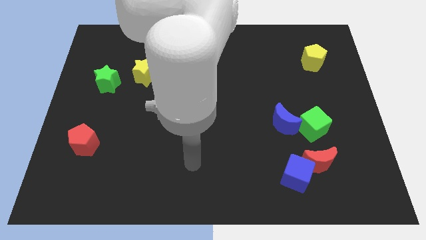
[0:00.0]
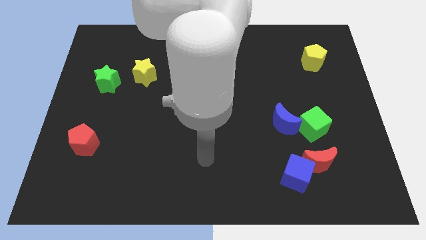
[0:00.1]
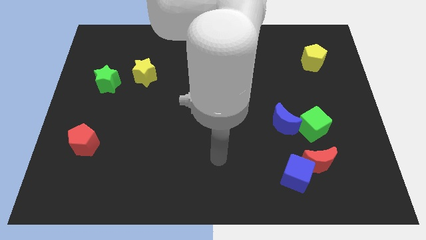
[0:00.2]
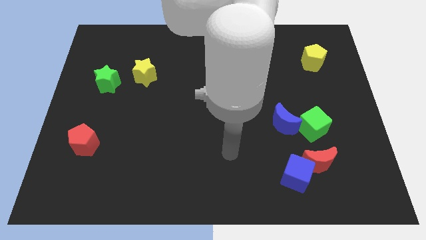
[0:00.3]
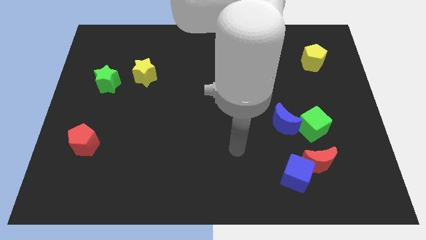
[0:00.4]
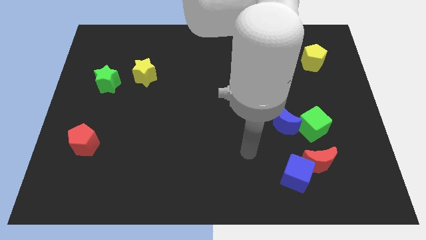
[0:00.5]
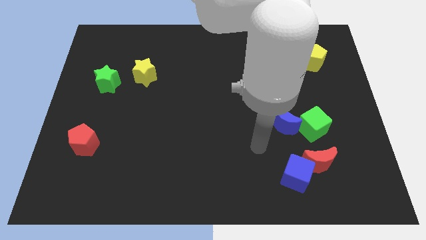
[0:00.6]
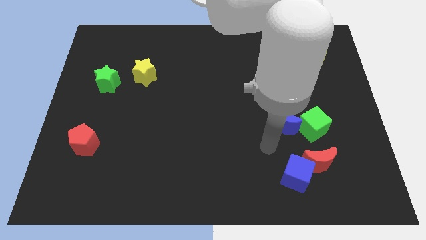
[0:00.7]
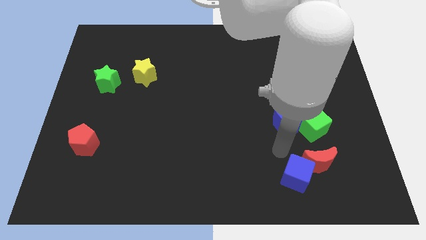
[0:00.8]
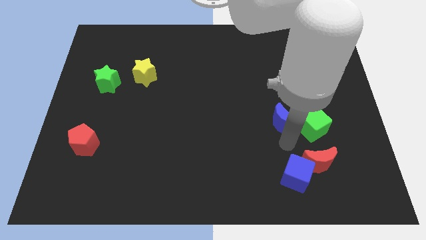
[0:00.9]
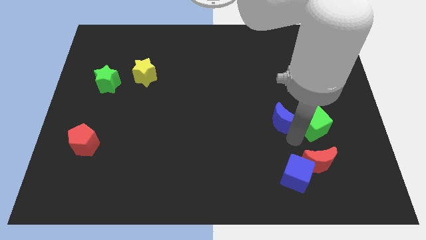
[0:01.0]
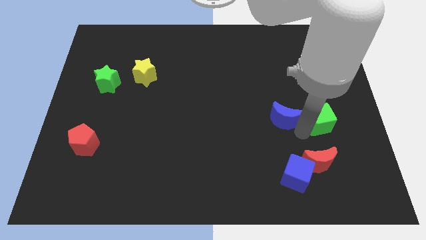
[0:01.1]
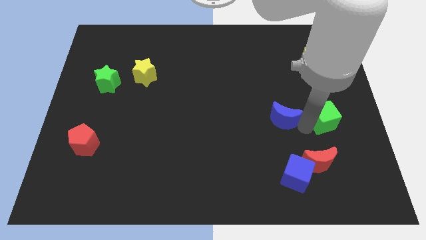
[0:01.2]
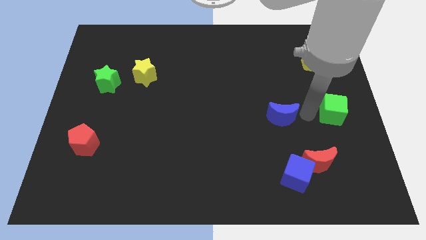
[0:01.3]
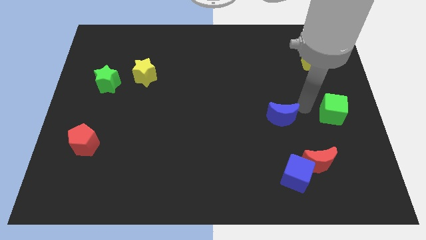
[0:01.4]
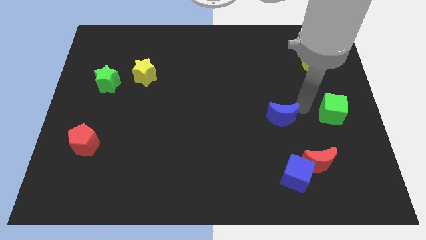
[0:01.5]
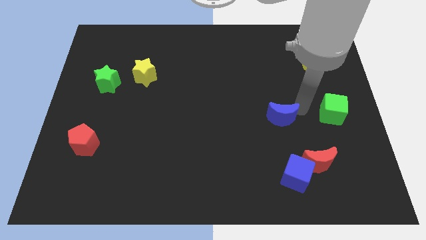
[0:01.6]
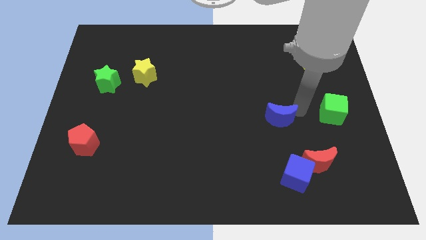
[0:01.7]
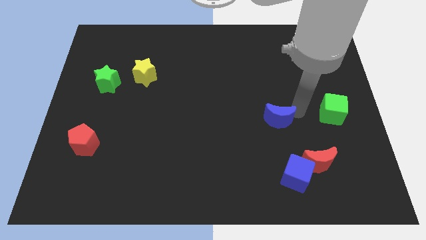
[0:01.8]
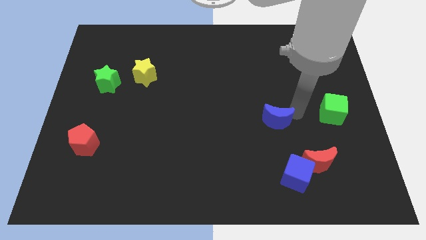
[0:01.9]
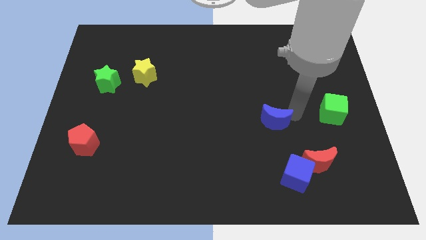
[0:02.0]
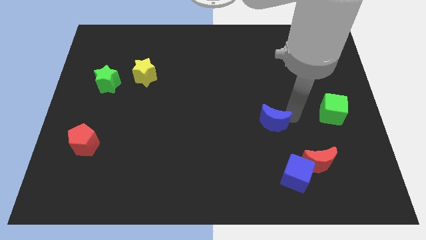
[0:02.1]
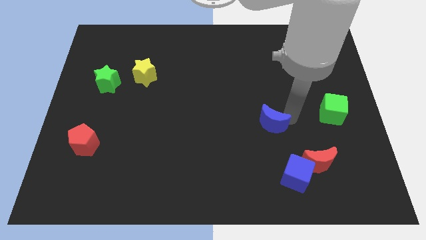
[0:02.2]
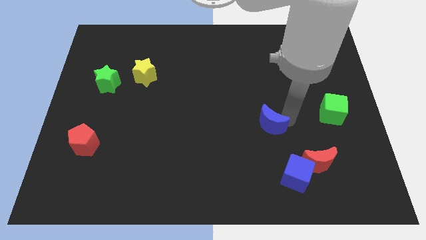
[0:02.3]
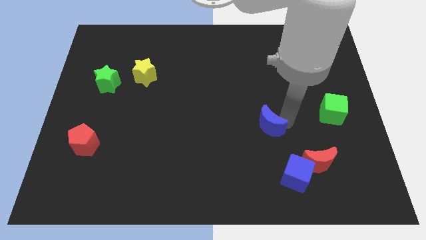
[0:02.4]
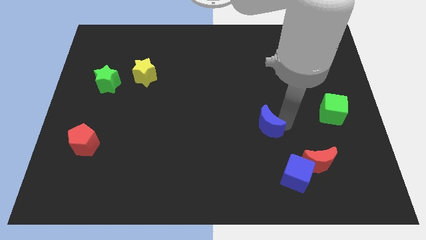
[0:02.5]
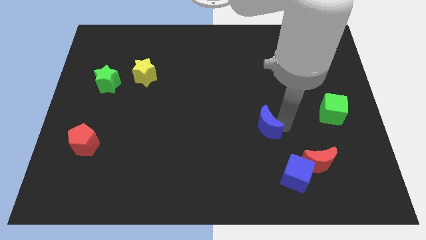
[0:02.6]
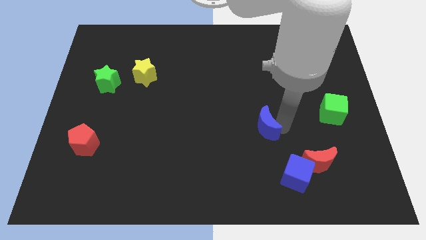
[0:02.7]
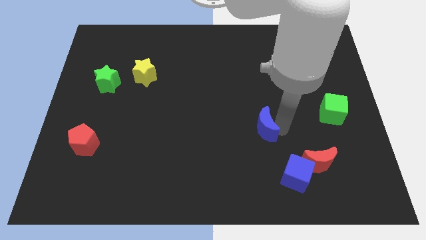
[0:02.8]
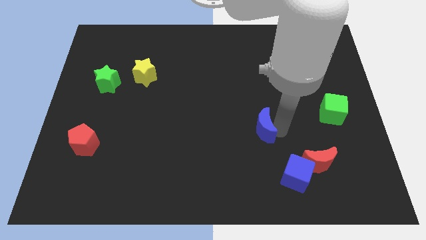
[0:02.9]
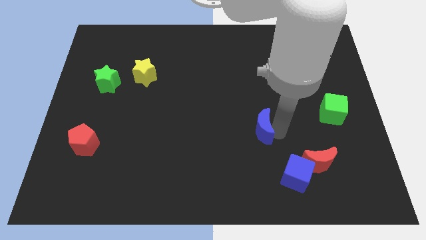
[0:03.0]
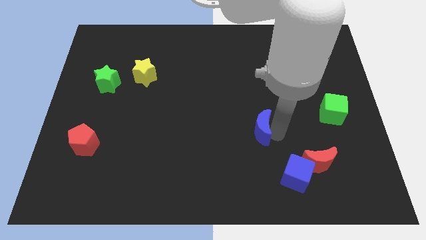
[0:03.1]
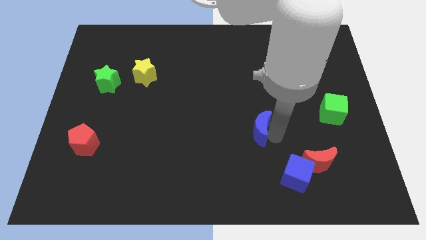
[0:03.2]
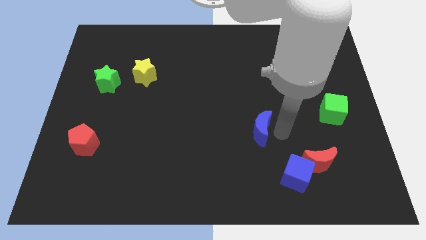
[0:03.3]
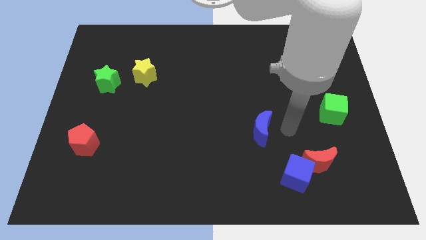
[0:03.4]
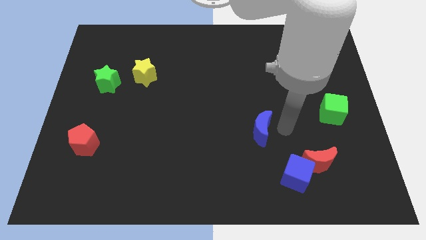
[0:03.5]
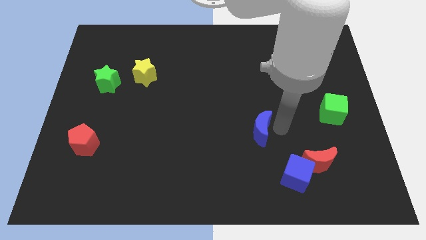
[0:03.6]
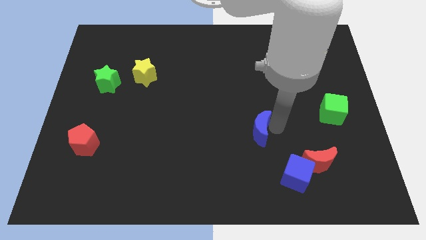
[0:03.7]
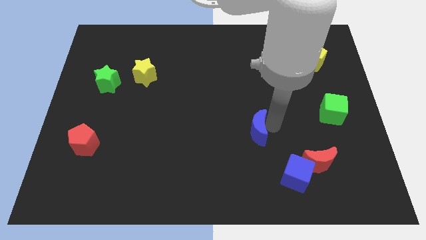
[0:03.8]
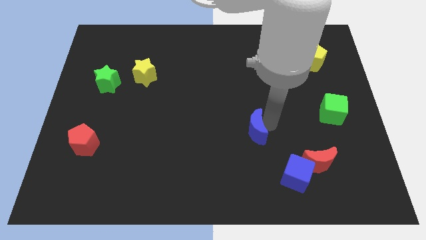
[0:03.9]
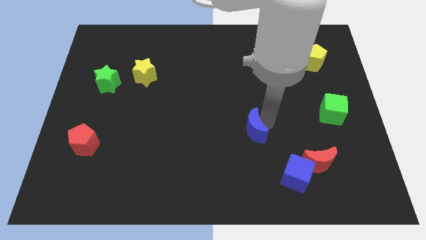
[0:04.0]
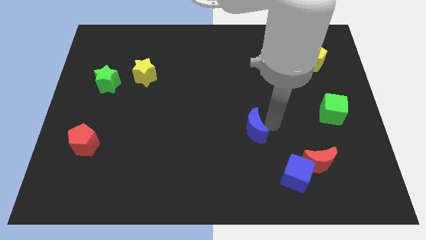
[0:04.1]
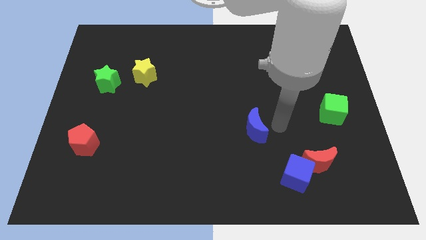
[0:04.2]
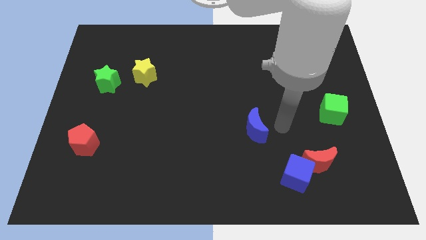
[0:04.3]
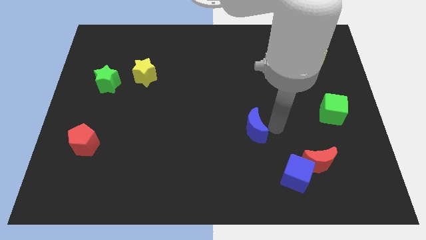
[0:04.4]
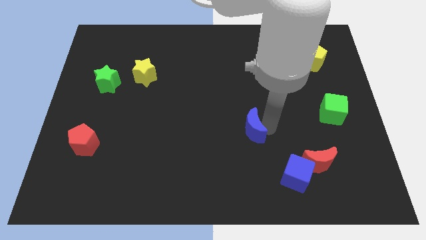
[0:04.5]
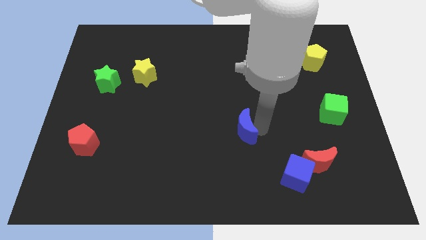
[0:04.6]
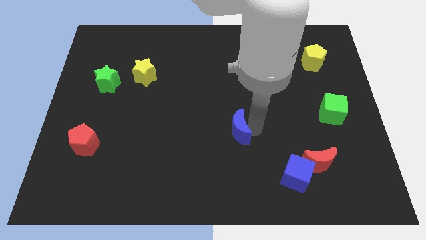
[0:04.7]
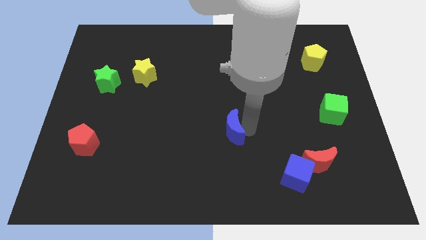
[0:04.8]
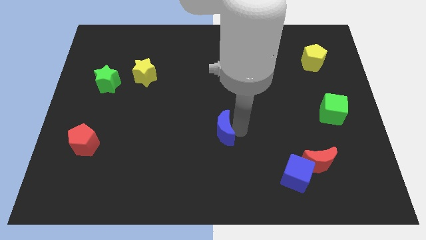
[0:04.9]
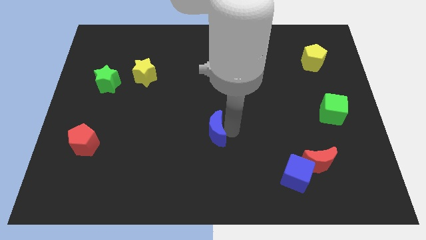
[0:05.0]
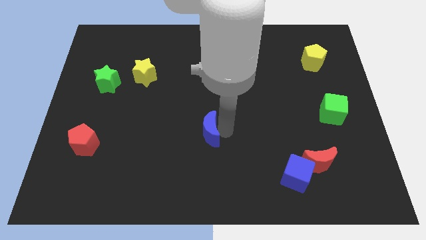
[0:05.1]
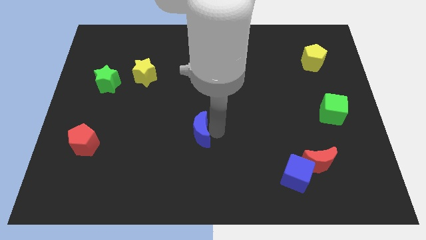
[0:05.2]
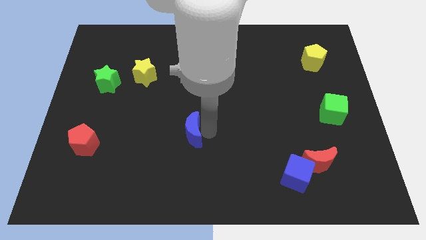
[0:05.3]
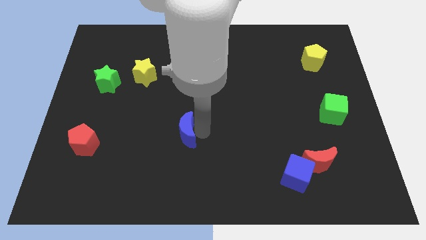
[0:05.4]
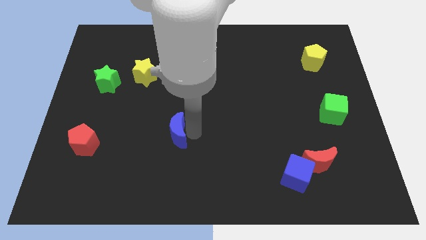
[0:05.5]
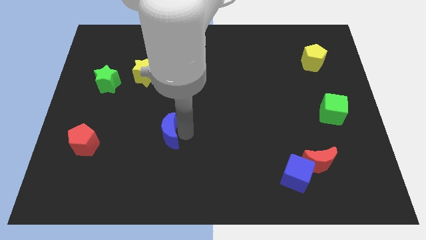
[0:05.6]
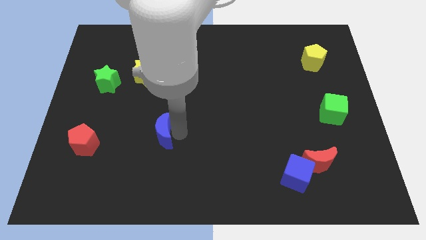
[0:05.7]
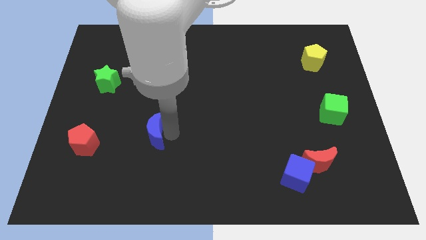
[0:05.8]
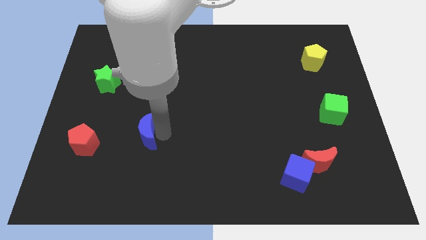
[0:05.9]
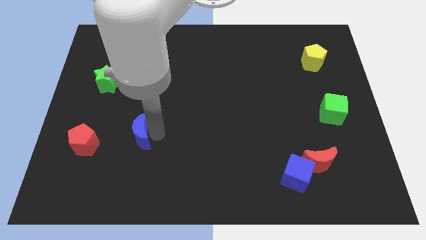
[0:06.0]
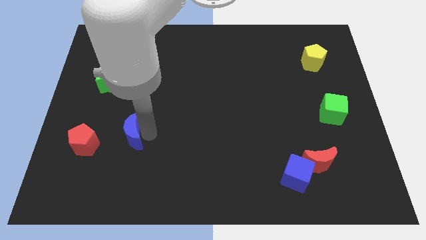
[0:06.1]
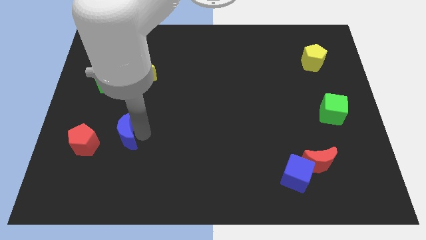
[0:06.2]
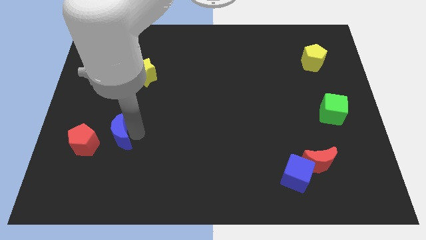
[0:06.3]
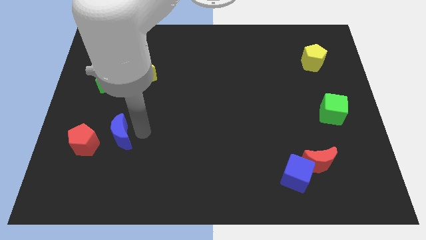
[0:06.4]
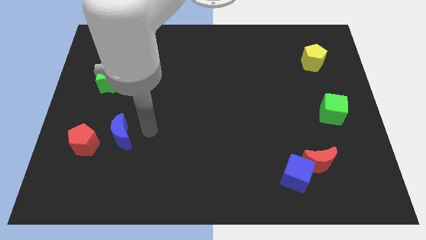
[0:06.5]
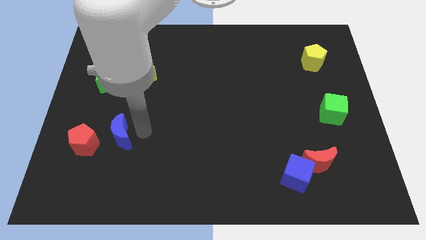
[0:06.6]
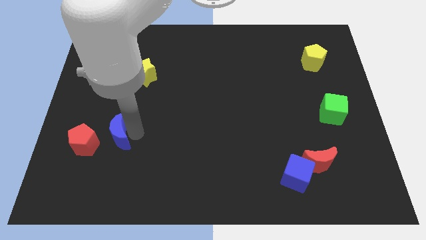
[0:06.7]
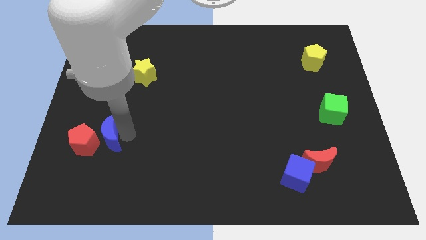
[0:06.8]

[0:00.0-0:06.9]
put the blue moon towards the red pentagon
